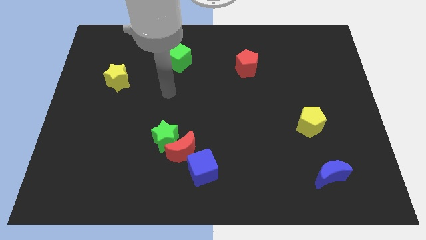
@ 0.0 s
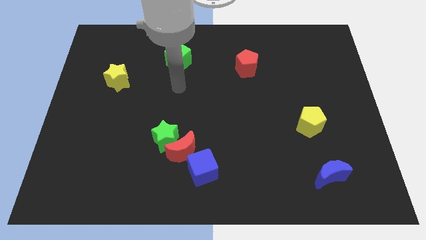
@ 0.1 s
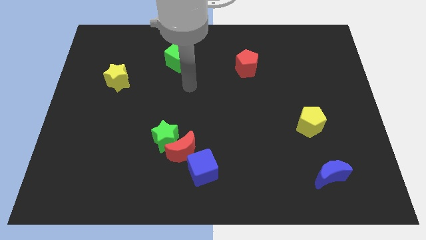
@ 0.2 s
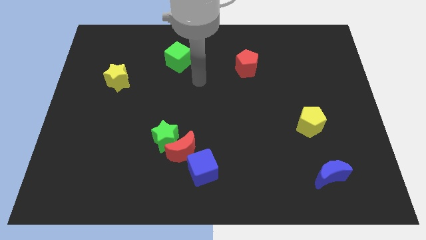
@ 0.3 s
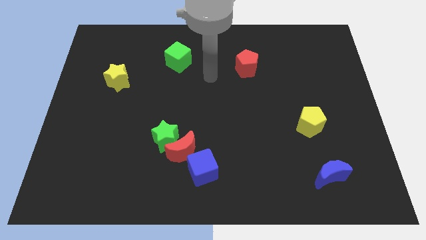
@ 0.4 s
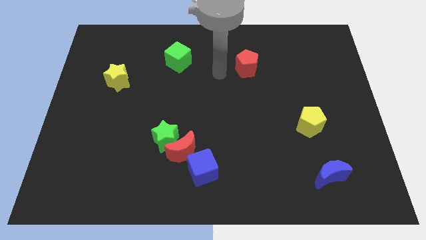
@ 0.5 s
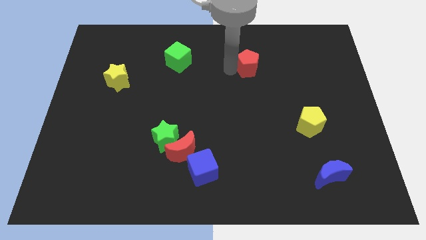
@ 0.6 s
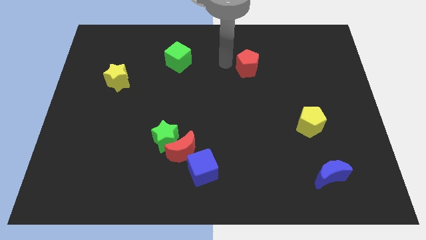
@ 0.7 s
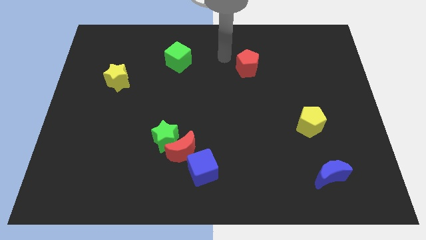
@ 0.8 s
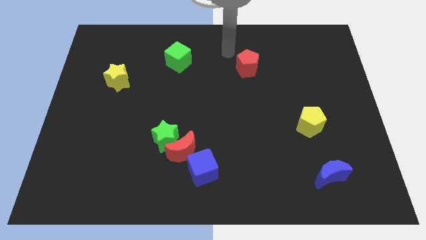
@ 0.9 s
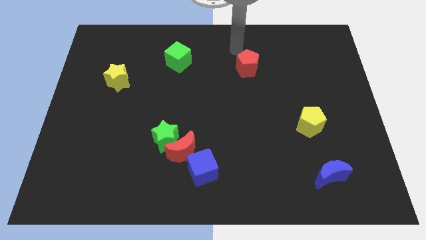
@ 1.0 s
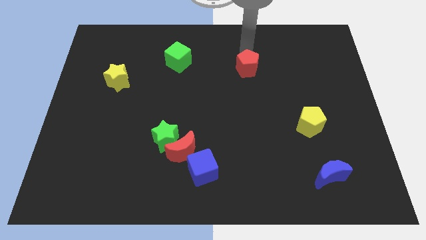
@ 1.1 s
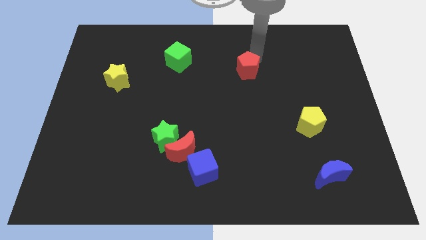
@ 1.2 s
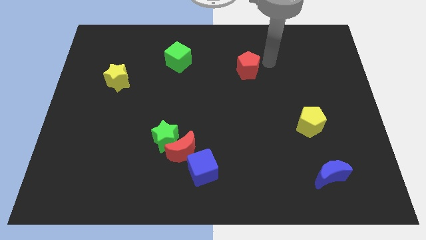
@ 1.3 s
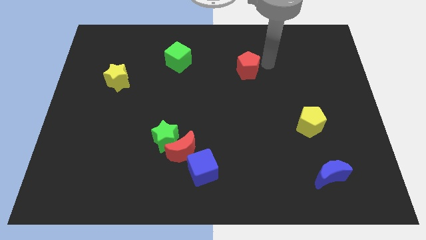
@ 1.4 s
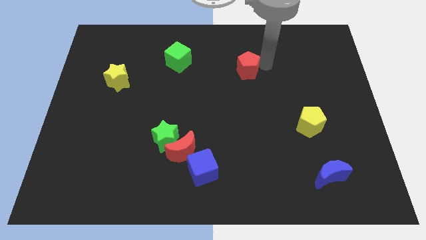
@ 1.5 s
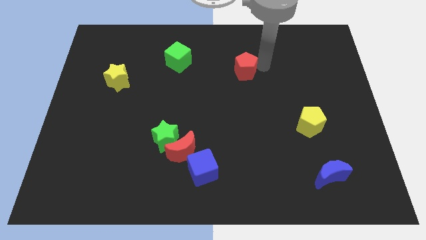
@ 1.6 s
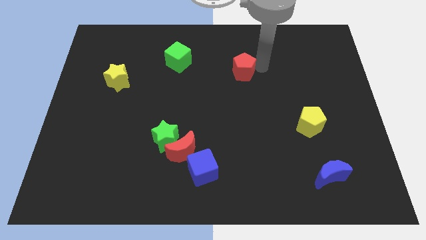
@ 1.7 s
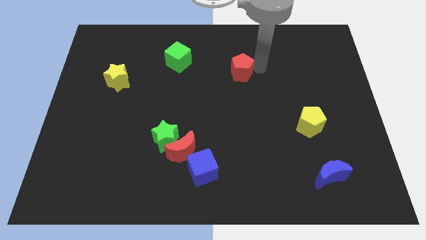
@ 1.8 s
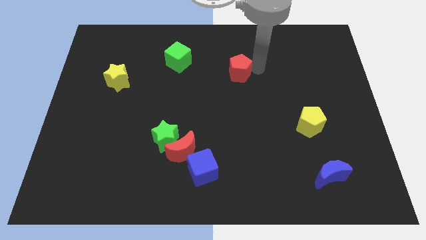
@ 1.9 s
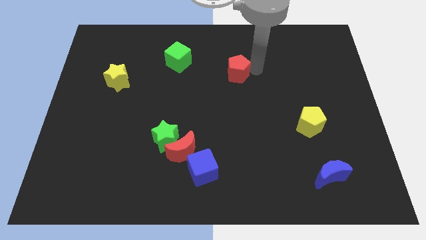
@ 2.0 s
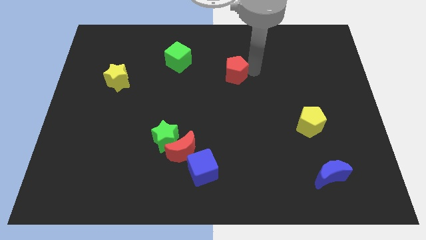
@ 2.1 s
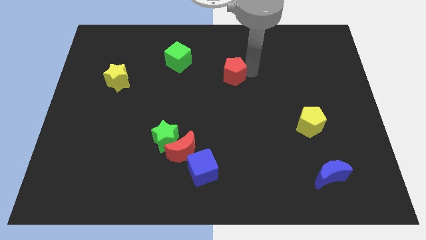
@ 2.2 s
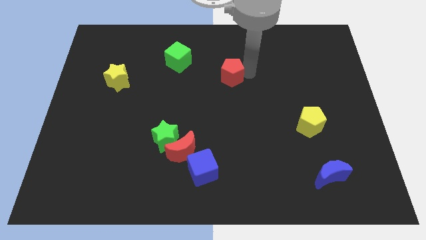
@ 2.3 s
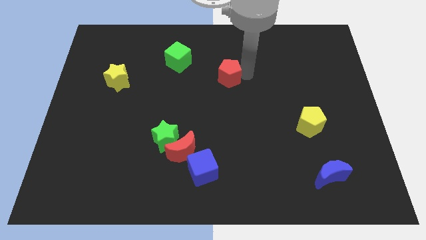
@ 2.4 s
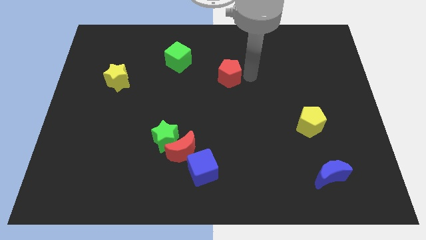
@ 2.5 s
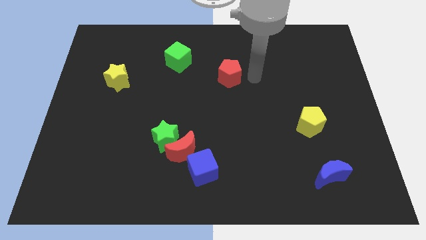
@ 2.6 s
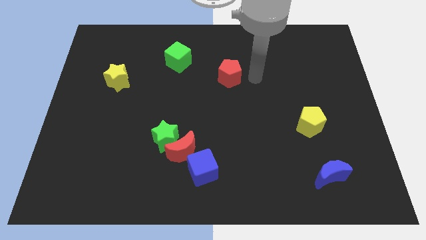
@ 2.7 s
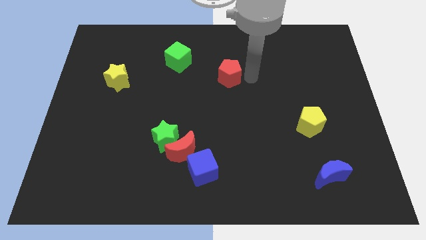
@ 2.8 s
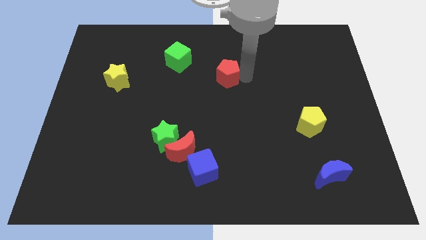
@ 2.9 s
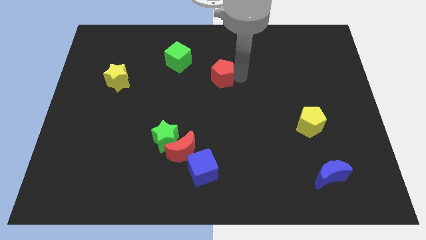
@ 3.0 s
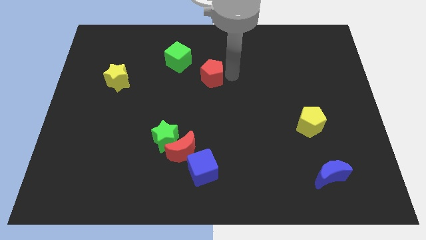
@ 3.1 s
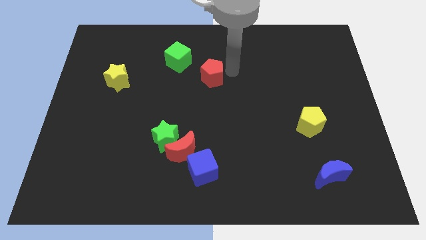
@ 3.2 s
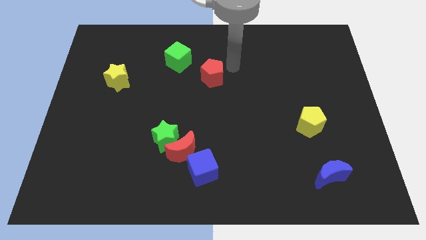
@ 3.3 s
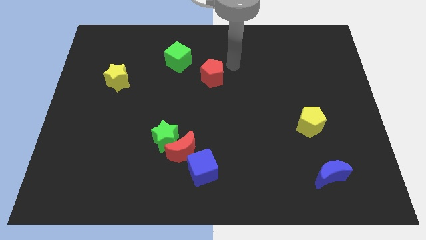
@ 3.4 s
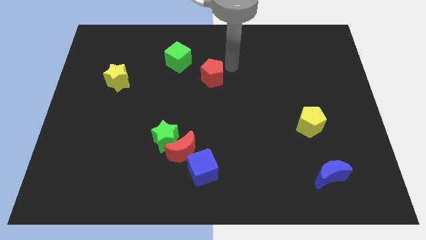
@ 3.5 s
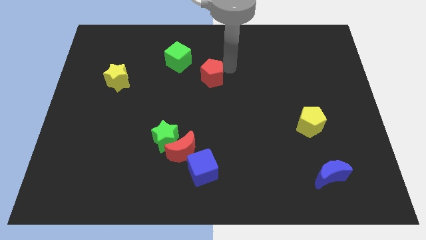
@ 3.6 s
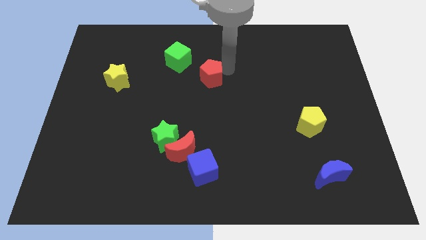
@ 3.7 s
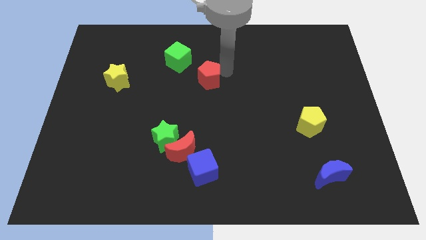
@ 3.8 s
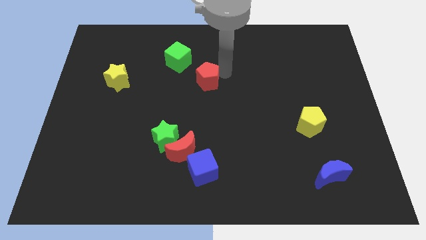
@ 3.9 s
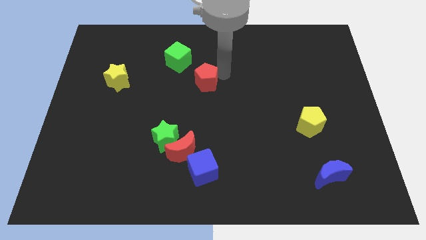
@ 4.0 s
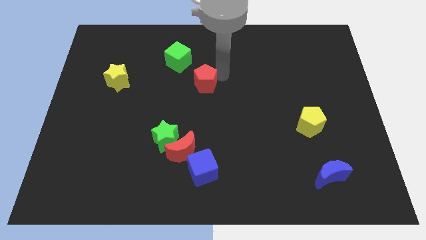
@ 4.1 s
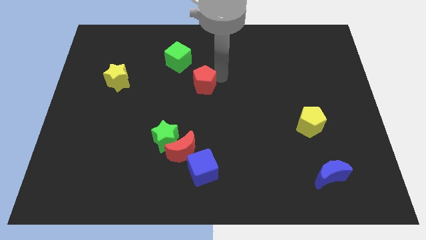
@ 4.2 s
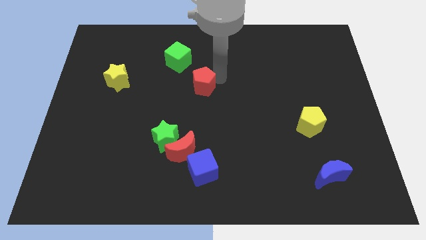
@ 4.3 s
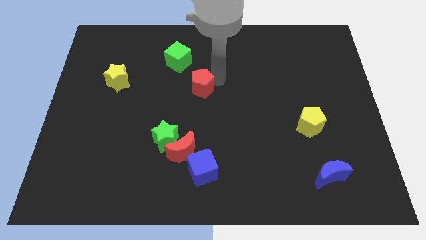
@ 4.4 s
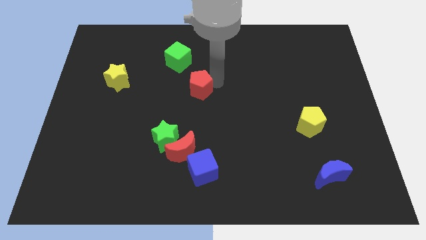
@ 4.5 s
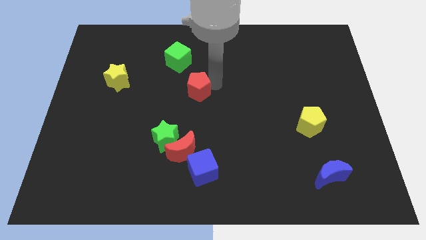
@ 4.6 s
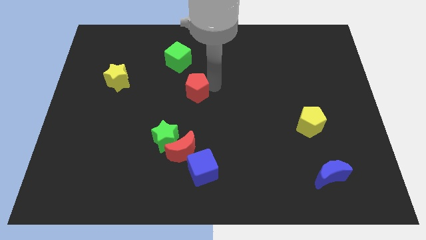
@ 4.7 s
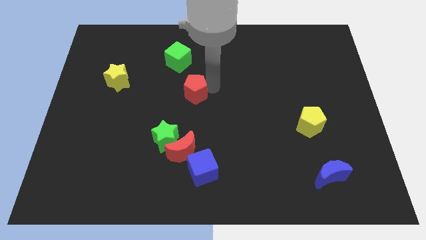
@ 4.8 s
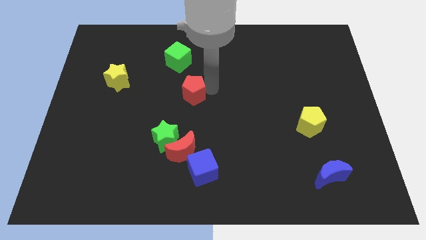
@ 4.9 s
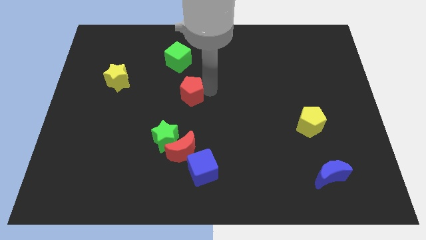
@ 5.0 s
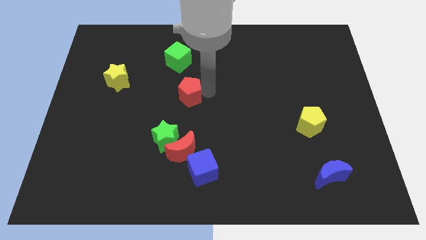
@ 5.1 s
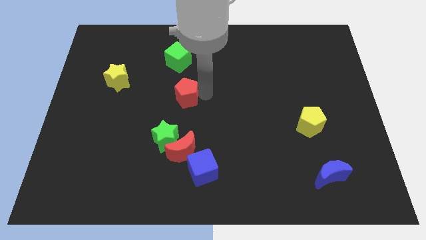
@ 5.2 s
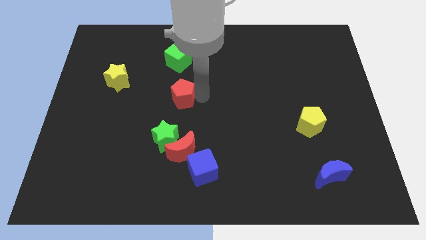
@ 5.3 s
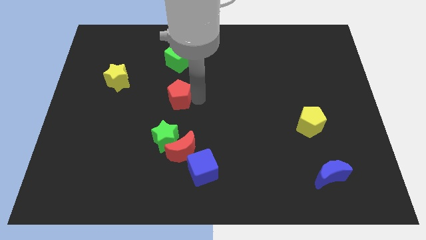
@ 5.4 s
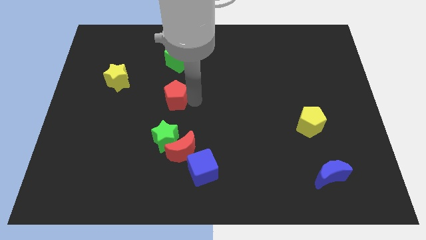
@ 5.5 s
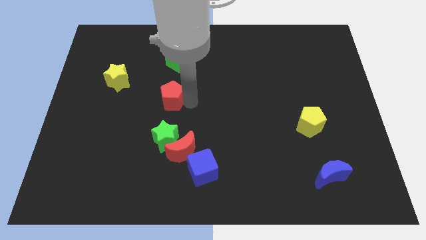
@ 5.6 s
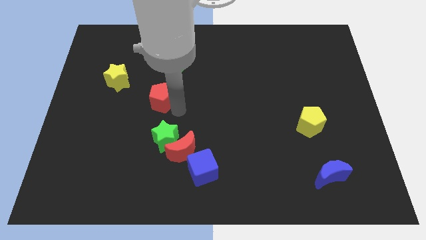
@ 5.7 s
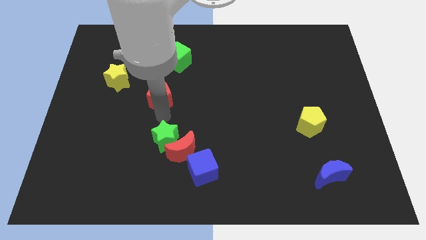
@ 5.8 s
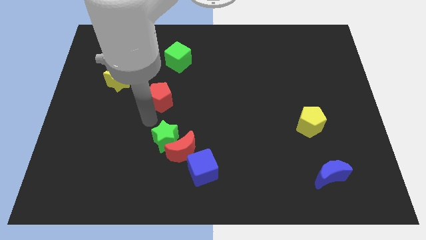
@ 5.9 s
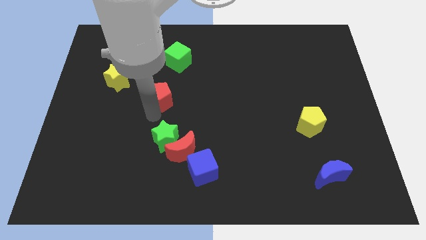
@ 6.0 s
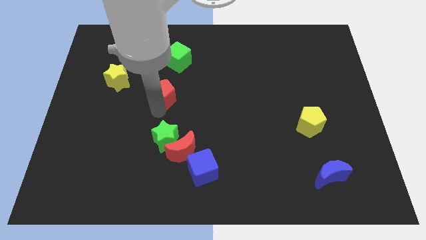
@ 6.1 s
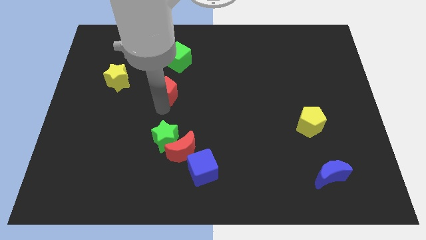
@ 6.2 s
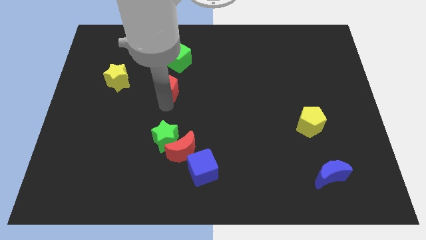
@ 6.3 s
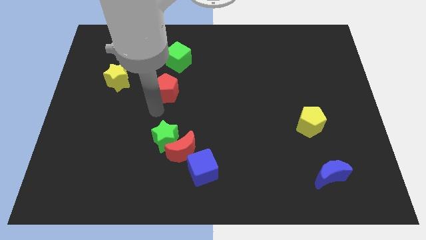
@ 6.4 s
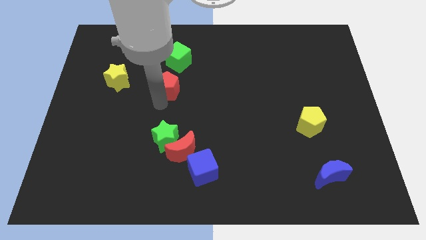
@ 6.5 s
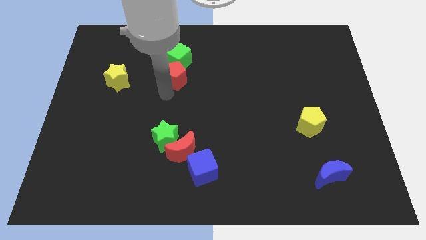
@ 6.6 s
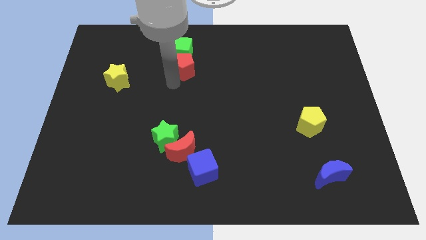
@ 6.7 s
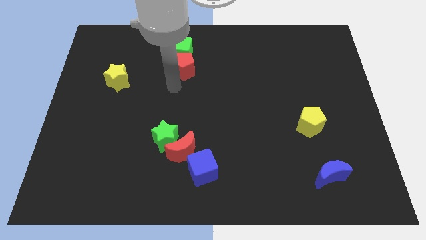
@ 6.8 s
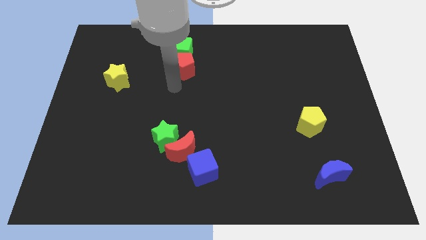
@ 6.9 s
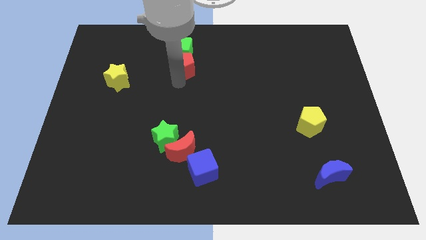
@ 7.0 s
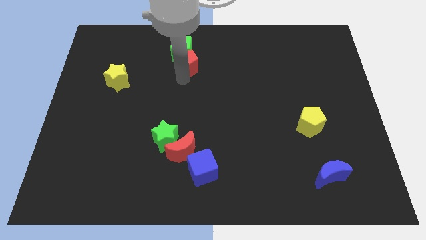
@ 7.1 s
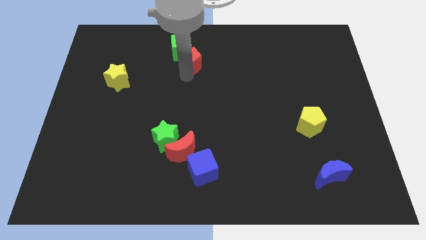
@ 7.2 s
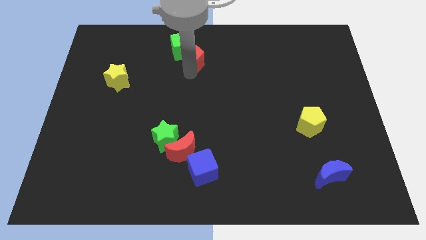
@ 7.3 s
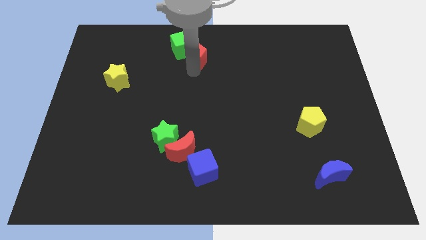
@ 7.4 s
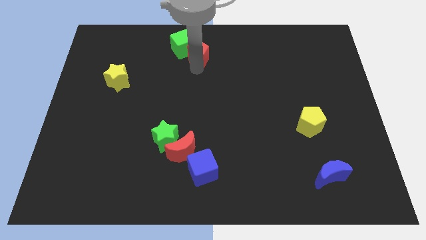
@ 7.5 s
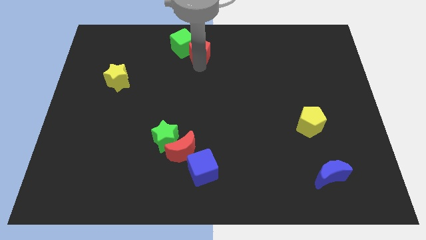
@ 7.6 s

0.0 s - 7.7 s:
push the red pentagon to the top
